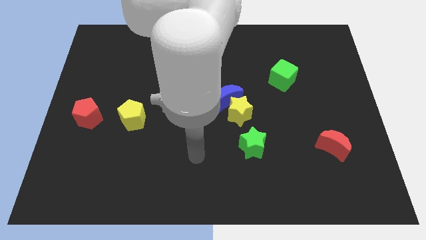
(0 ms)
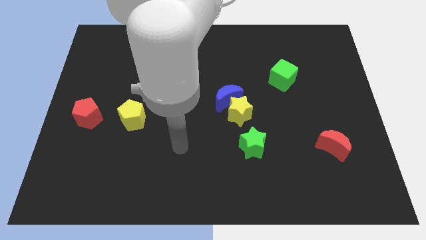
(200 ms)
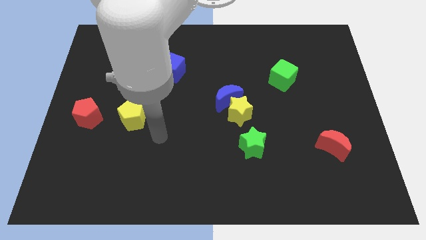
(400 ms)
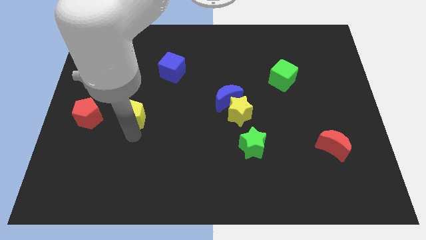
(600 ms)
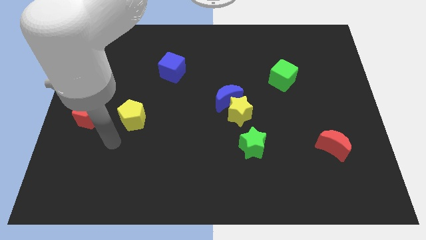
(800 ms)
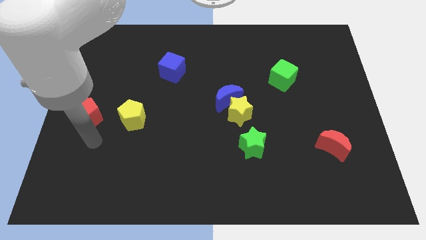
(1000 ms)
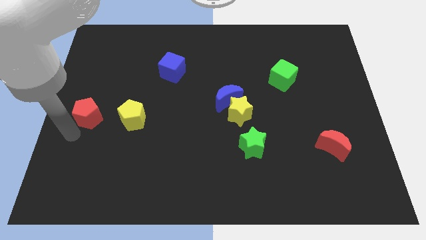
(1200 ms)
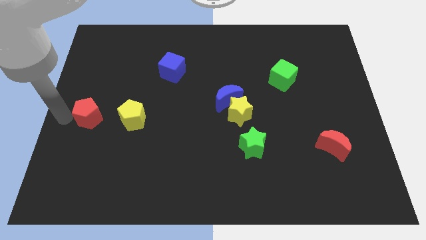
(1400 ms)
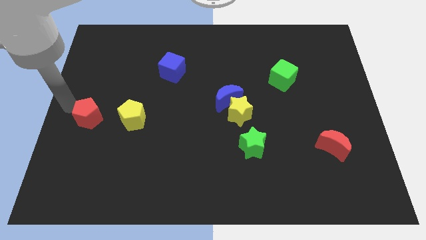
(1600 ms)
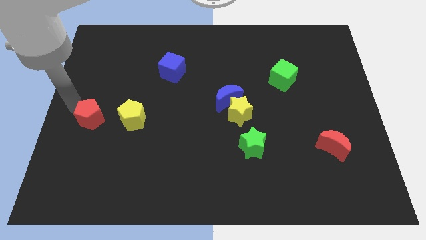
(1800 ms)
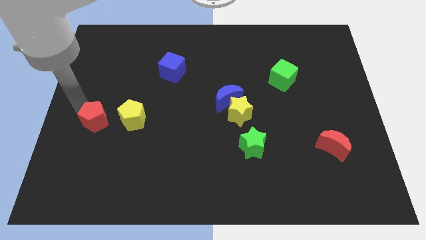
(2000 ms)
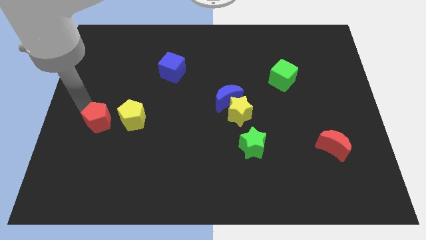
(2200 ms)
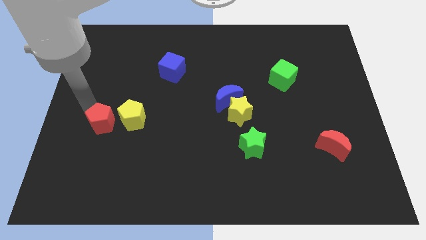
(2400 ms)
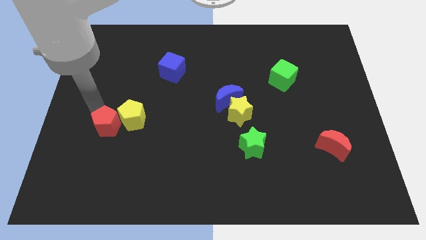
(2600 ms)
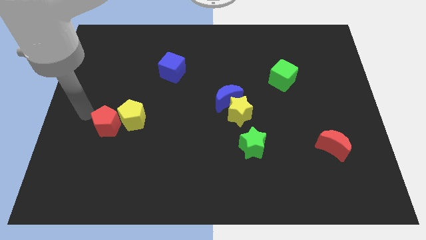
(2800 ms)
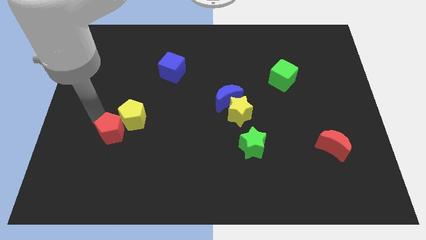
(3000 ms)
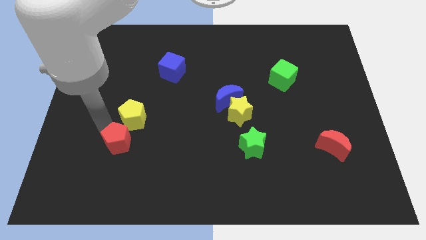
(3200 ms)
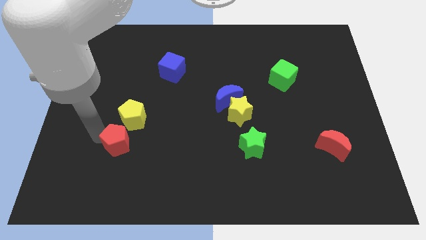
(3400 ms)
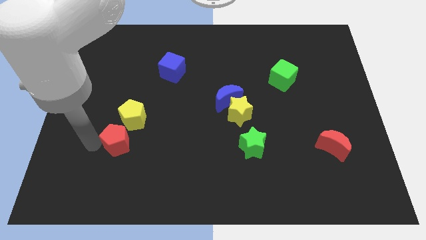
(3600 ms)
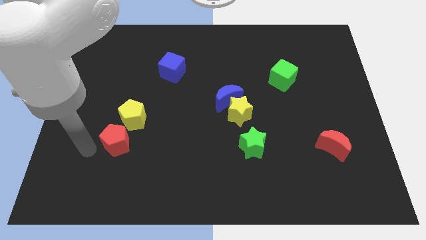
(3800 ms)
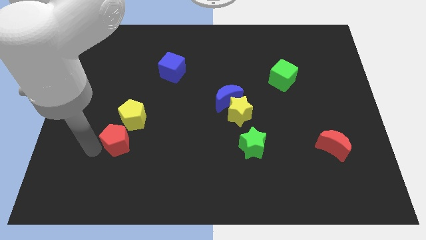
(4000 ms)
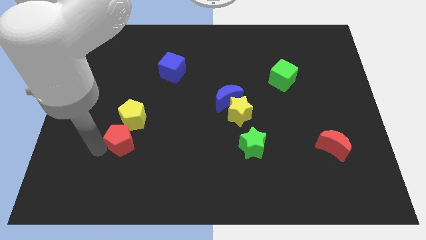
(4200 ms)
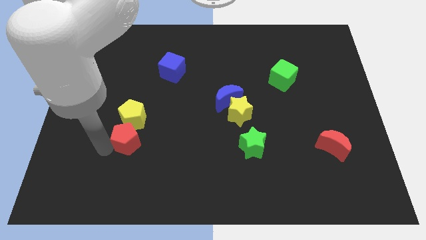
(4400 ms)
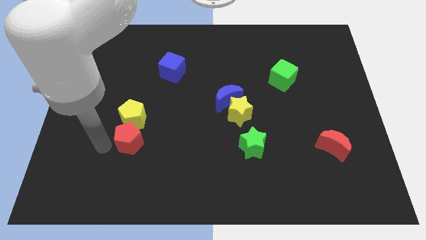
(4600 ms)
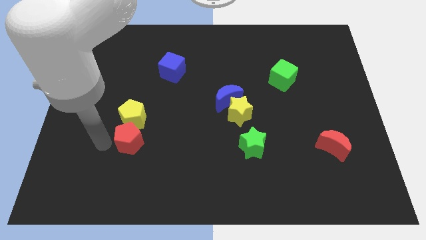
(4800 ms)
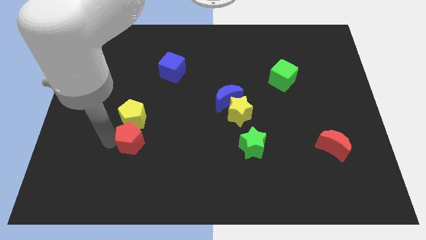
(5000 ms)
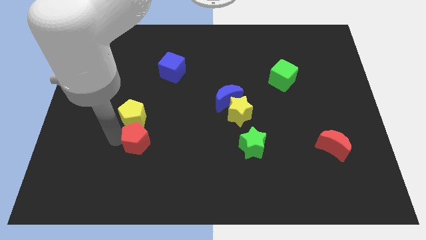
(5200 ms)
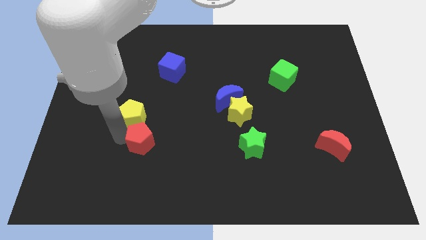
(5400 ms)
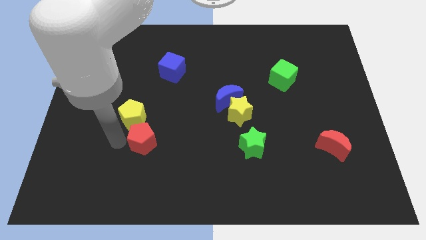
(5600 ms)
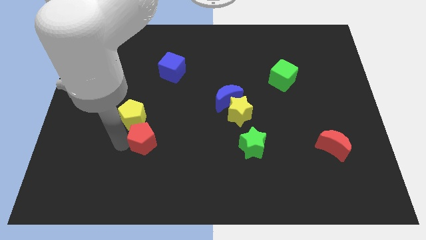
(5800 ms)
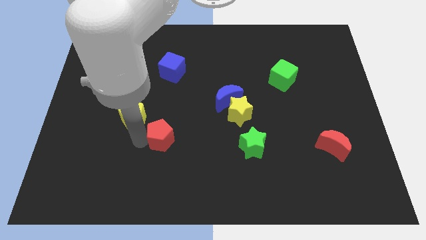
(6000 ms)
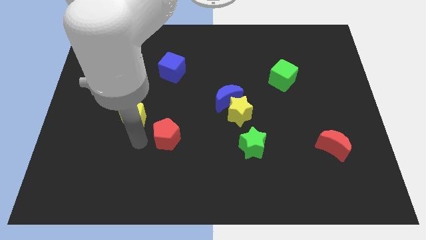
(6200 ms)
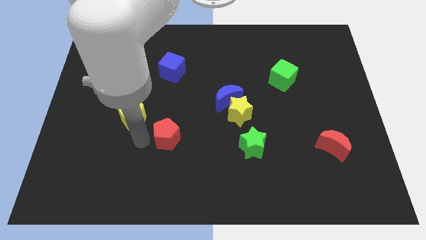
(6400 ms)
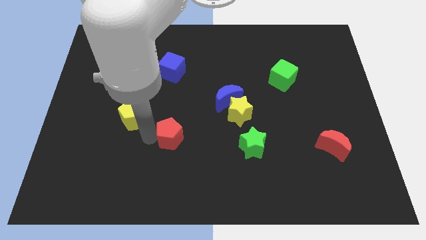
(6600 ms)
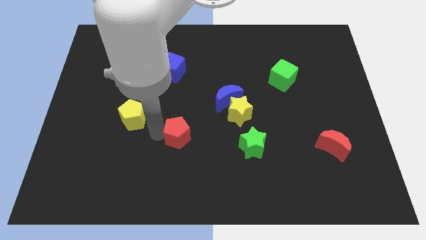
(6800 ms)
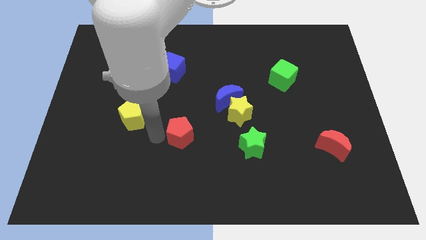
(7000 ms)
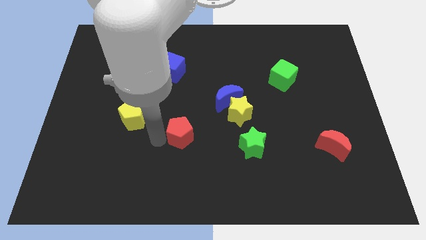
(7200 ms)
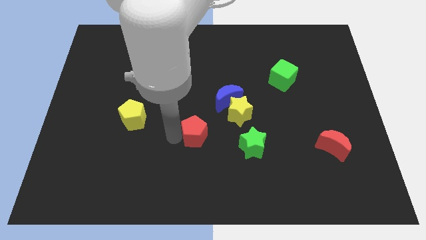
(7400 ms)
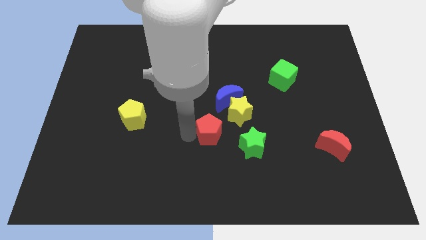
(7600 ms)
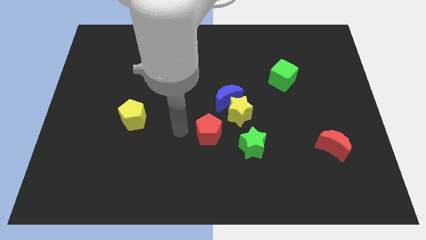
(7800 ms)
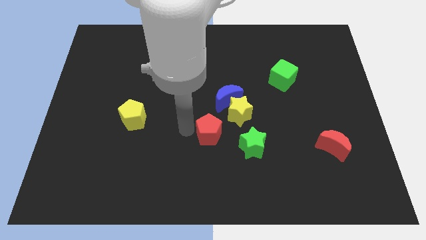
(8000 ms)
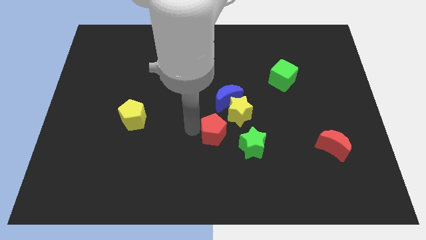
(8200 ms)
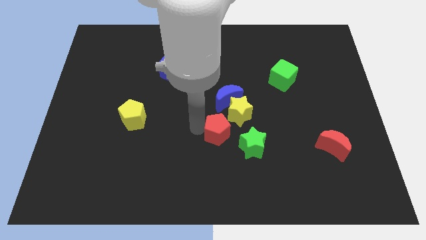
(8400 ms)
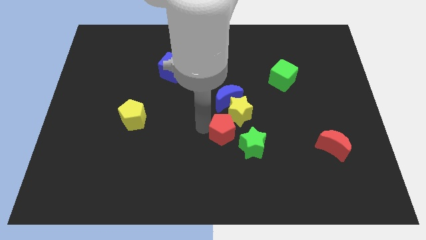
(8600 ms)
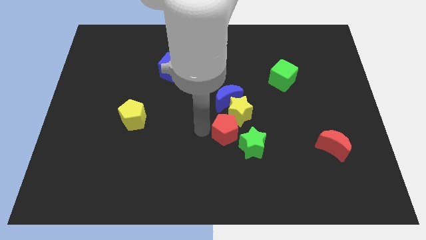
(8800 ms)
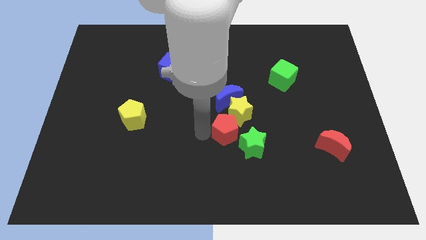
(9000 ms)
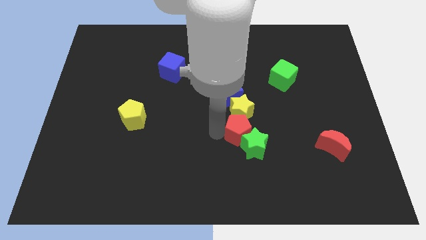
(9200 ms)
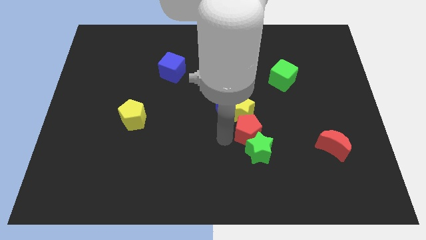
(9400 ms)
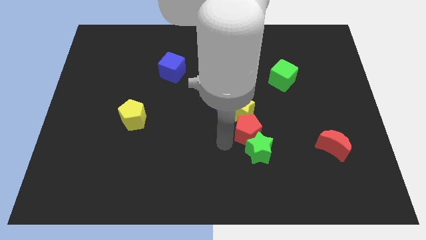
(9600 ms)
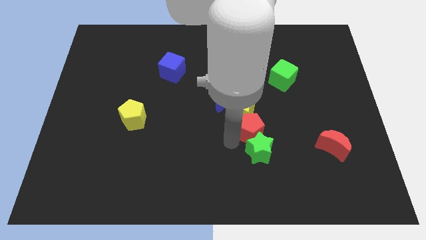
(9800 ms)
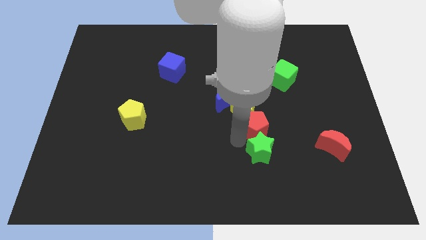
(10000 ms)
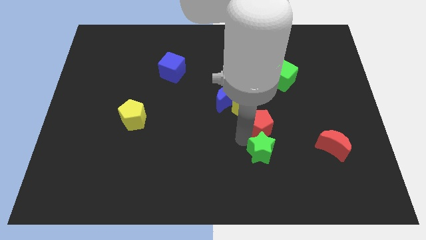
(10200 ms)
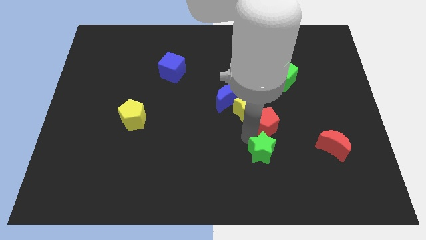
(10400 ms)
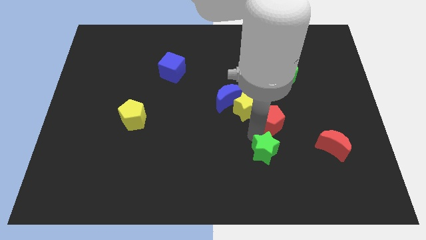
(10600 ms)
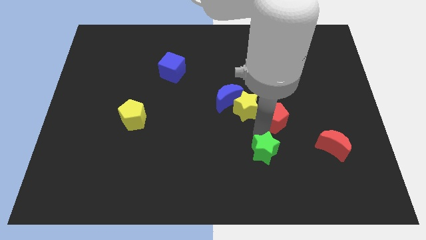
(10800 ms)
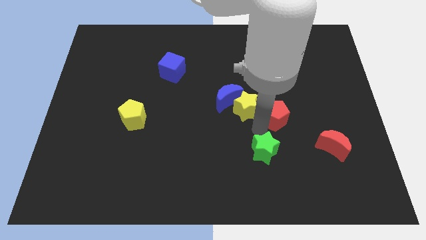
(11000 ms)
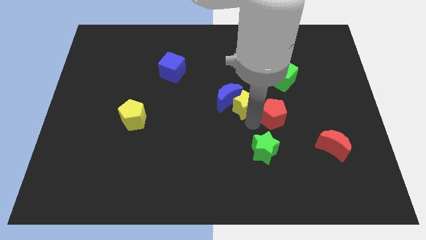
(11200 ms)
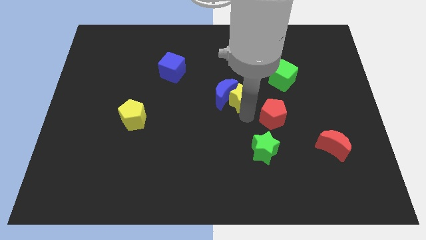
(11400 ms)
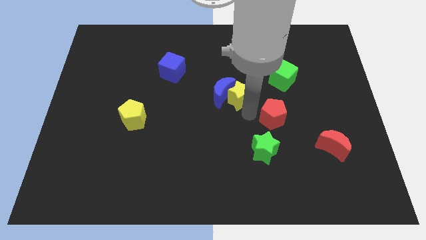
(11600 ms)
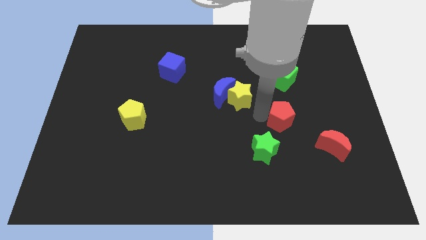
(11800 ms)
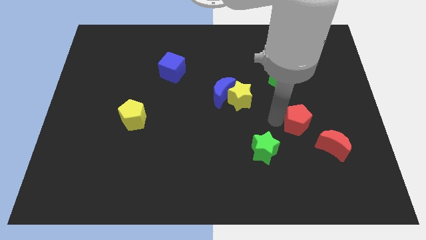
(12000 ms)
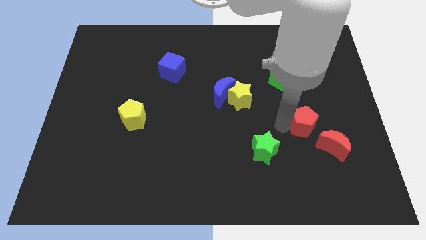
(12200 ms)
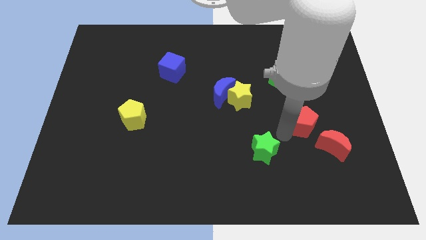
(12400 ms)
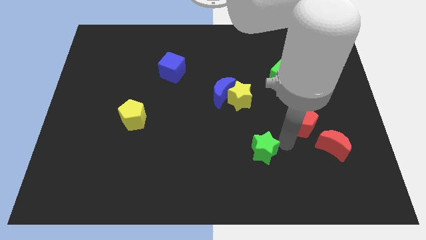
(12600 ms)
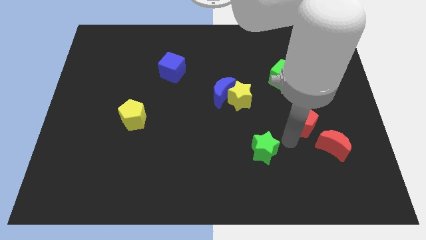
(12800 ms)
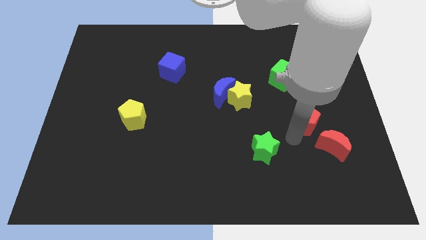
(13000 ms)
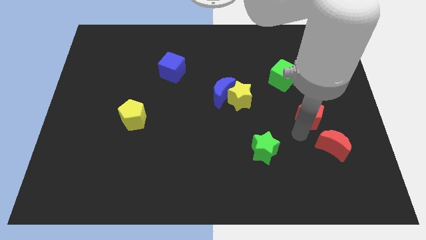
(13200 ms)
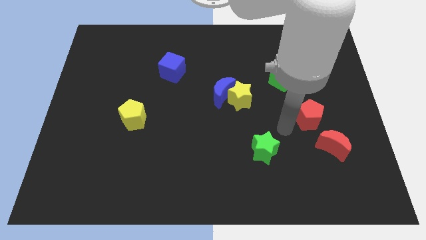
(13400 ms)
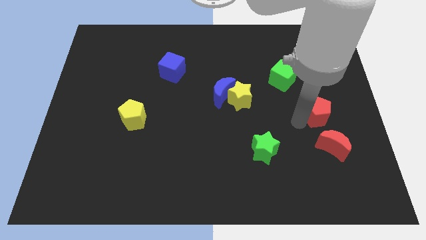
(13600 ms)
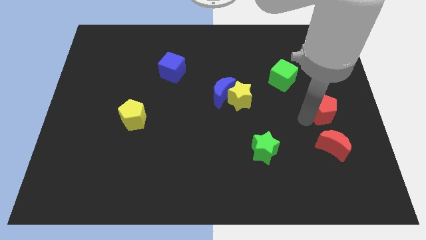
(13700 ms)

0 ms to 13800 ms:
push the red pentagon to the center right
